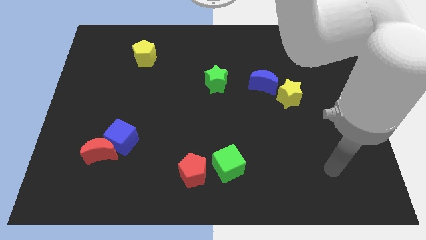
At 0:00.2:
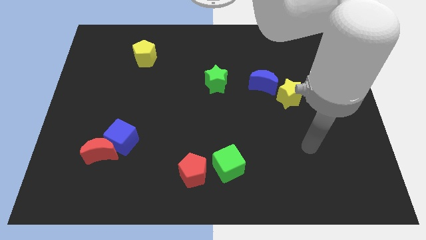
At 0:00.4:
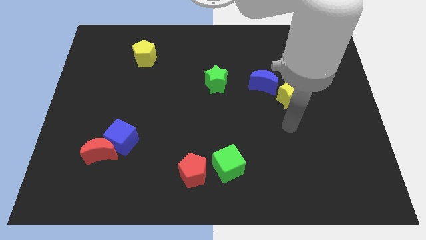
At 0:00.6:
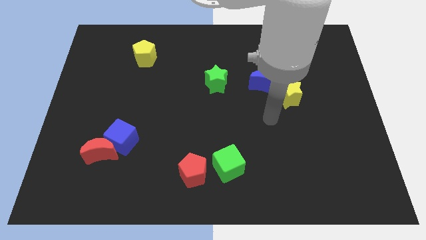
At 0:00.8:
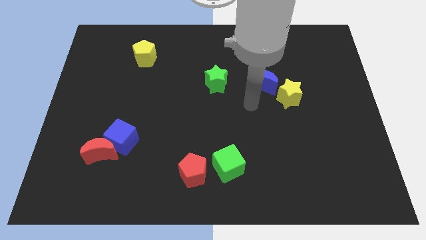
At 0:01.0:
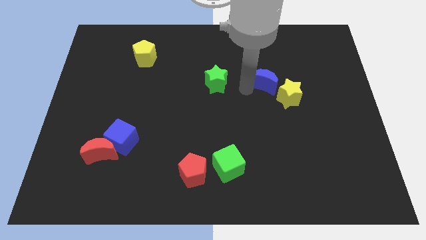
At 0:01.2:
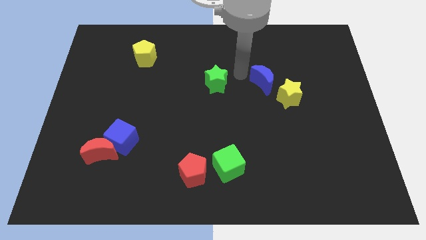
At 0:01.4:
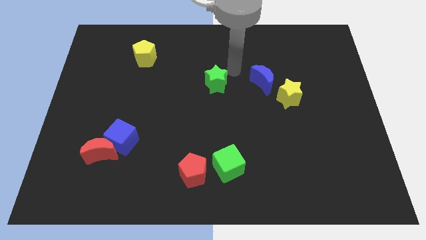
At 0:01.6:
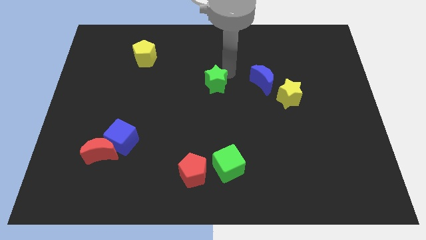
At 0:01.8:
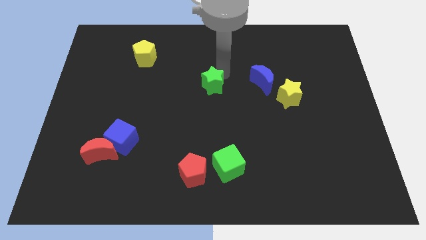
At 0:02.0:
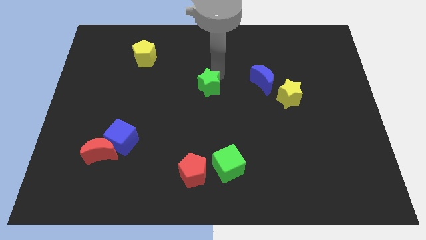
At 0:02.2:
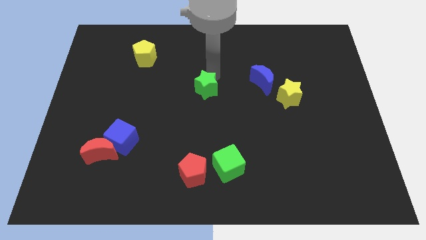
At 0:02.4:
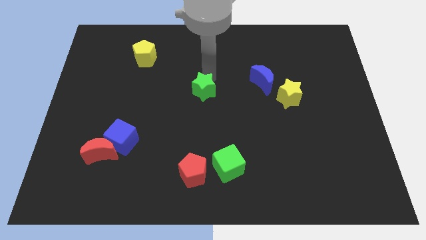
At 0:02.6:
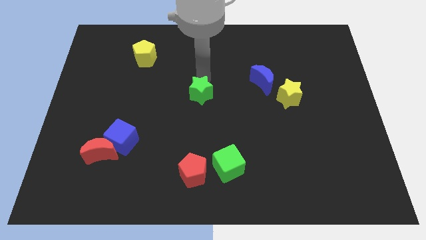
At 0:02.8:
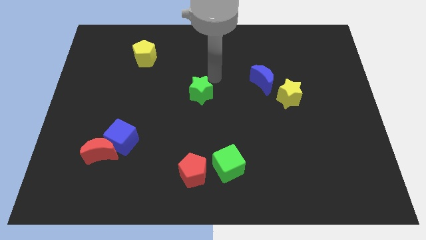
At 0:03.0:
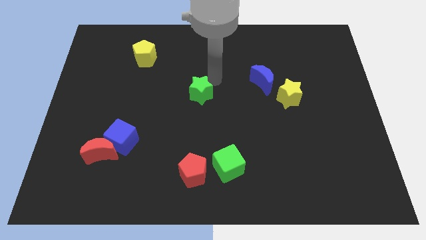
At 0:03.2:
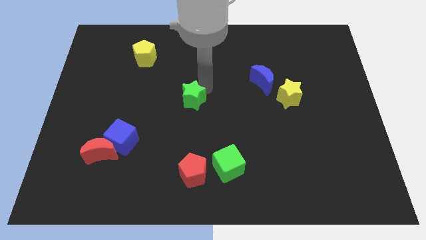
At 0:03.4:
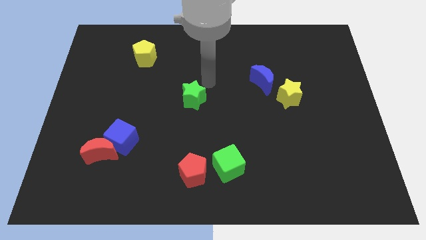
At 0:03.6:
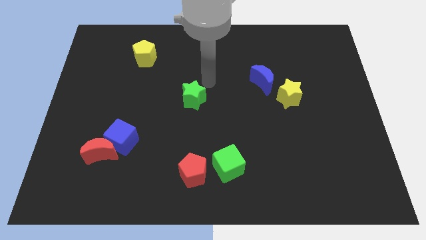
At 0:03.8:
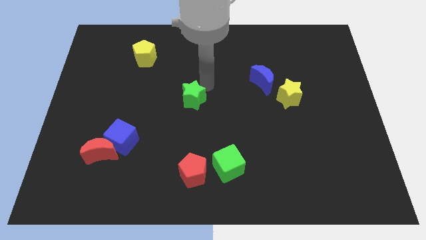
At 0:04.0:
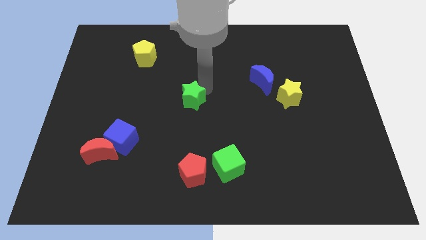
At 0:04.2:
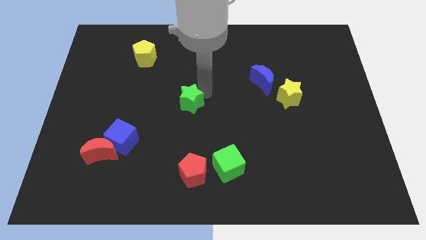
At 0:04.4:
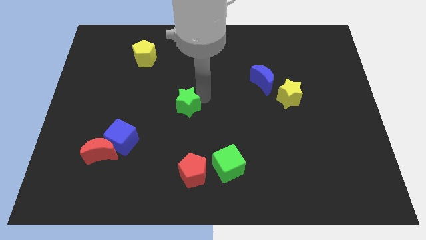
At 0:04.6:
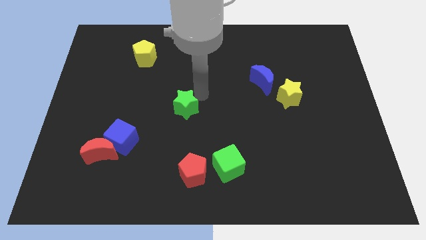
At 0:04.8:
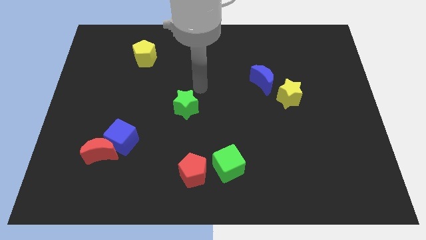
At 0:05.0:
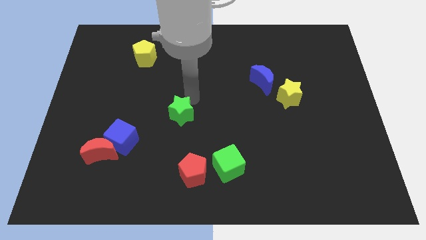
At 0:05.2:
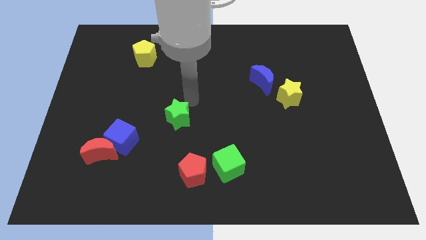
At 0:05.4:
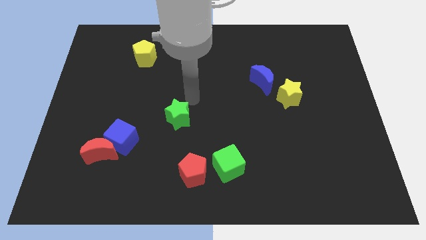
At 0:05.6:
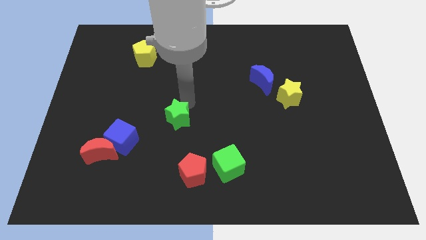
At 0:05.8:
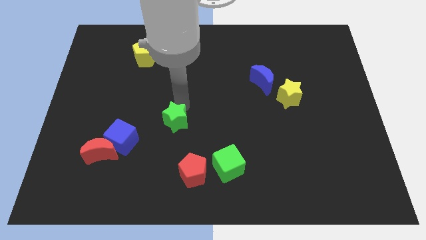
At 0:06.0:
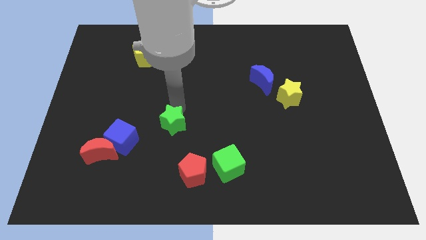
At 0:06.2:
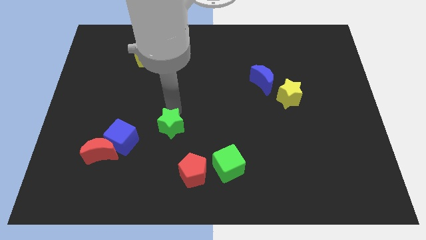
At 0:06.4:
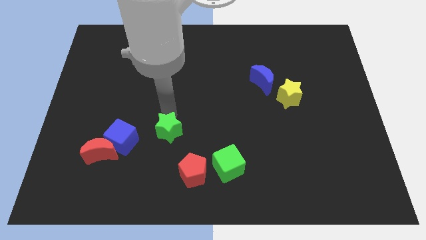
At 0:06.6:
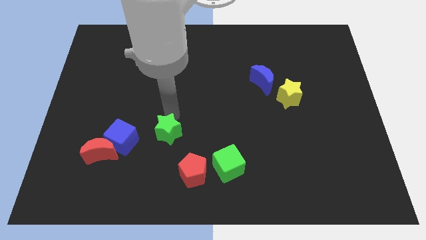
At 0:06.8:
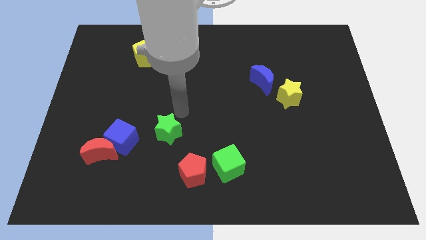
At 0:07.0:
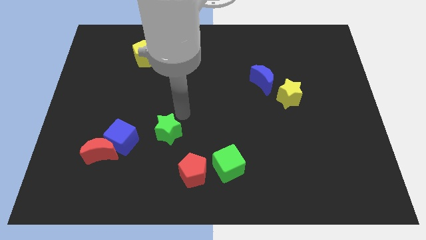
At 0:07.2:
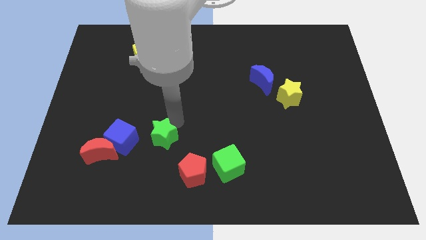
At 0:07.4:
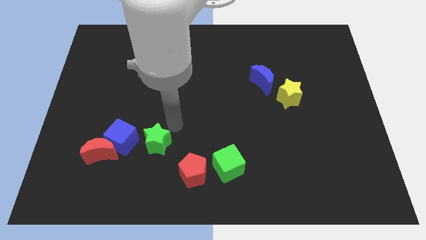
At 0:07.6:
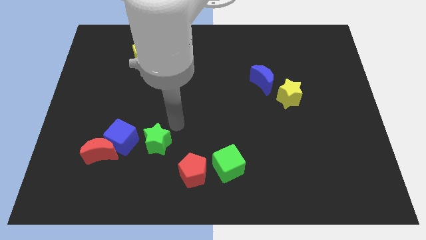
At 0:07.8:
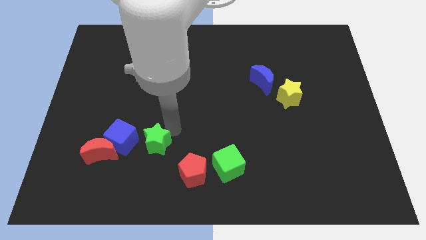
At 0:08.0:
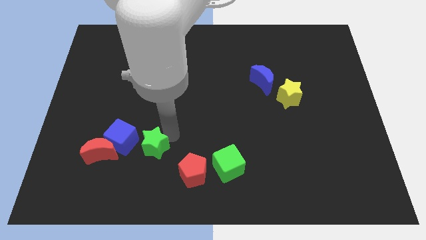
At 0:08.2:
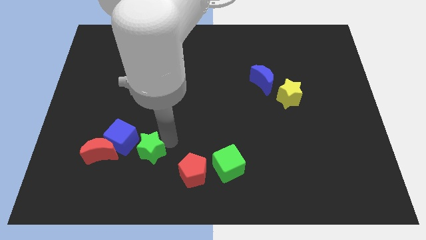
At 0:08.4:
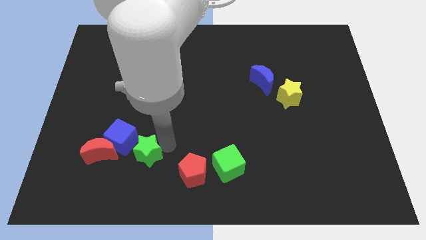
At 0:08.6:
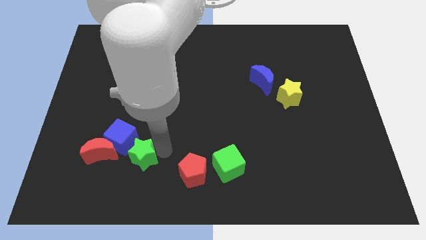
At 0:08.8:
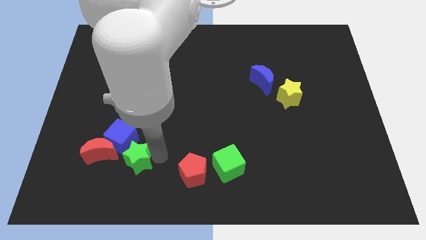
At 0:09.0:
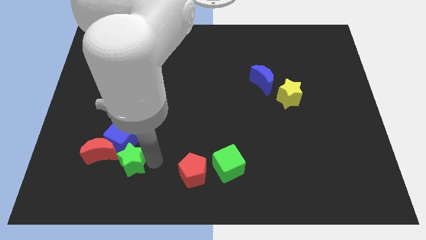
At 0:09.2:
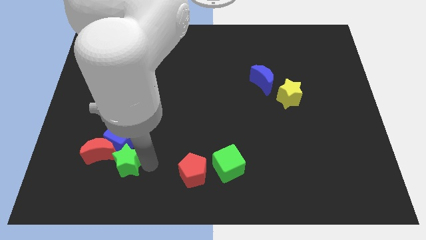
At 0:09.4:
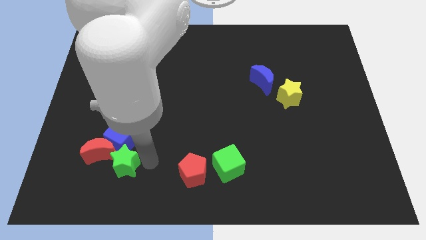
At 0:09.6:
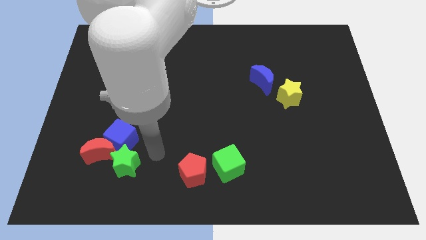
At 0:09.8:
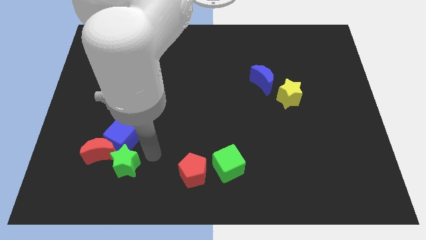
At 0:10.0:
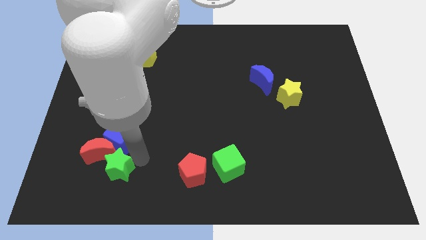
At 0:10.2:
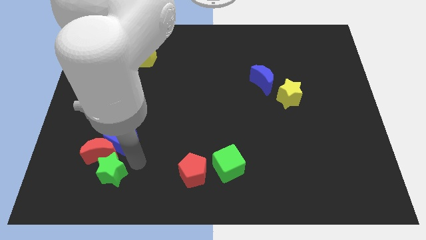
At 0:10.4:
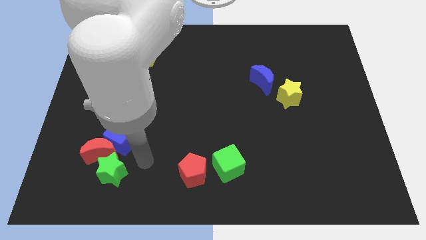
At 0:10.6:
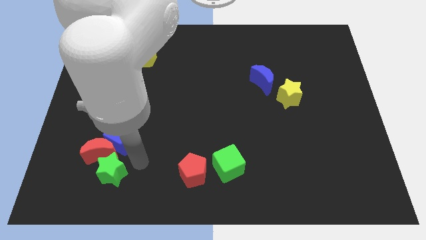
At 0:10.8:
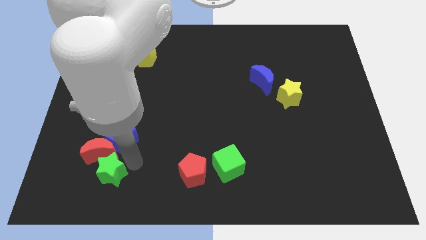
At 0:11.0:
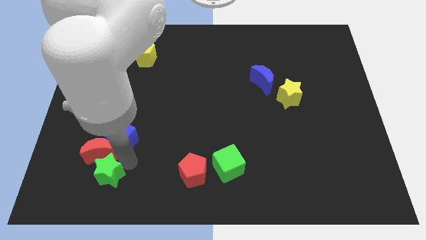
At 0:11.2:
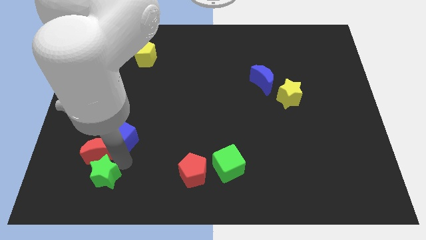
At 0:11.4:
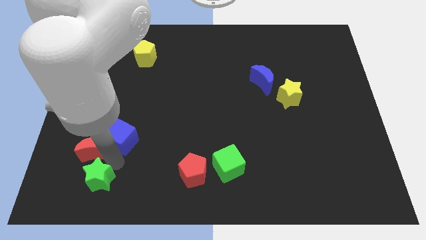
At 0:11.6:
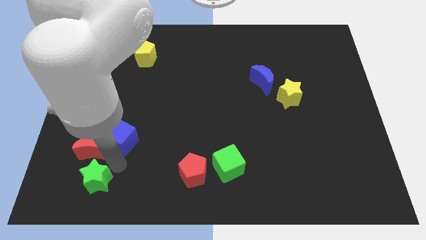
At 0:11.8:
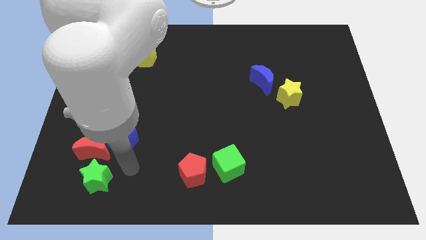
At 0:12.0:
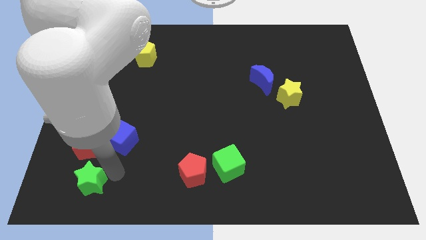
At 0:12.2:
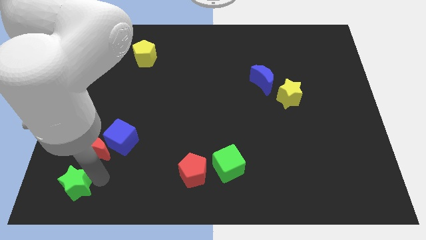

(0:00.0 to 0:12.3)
put the green star to the bottom left of the board
